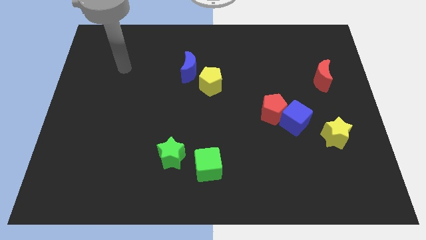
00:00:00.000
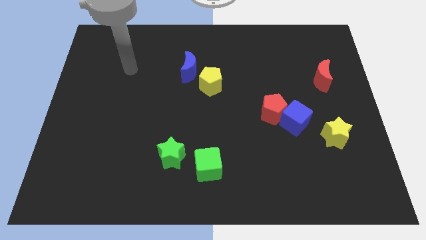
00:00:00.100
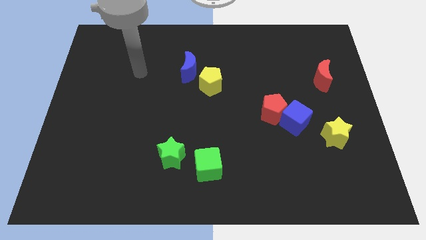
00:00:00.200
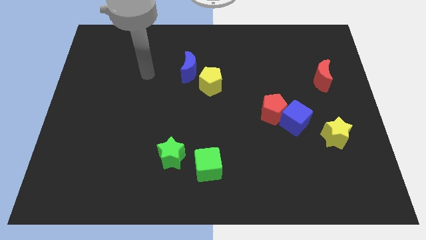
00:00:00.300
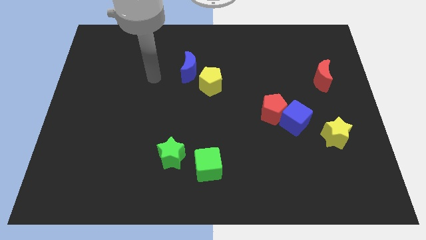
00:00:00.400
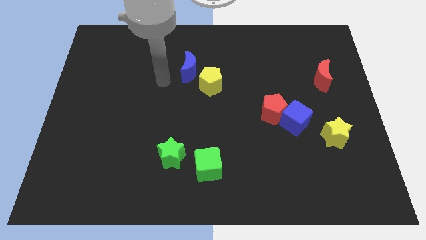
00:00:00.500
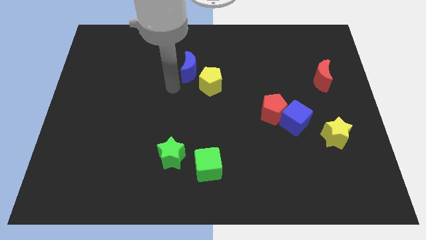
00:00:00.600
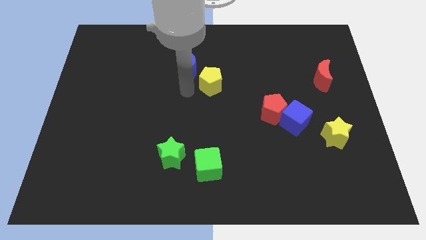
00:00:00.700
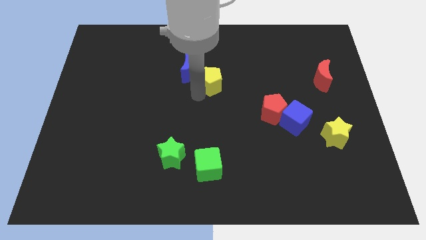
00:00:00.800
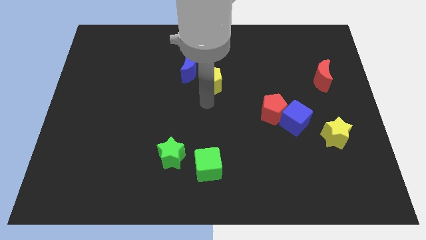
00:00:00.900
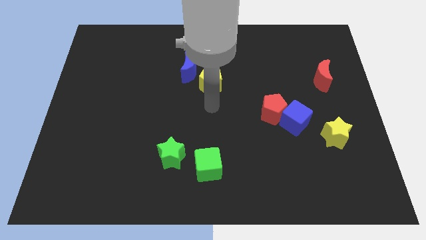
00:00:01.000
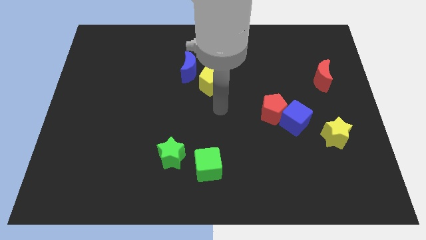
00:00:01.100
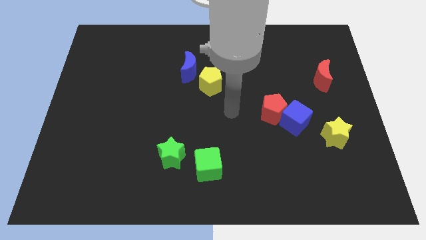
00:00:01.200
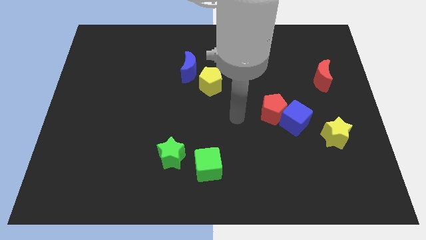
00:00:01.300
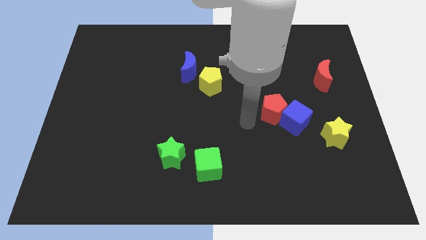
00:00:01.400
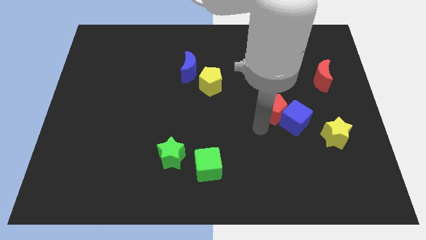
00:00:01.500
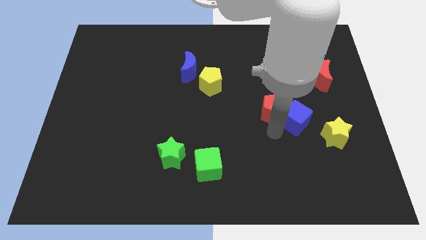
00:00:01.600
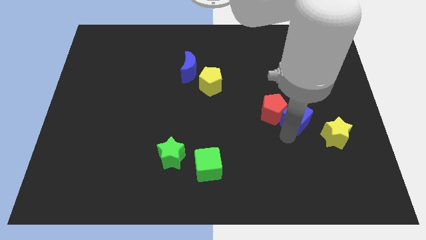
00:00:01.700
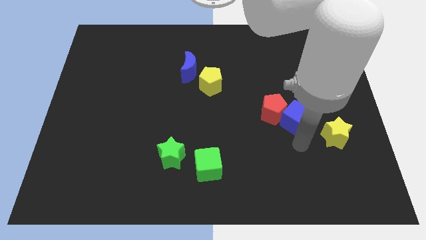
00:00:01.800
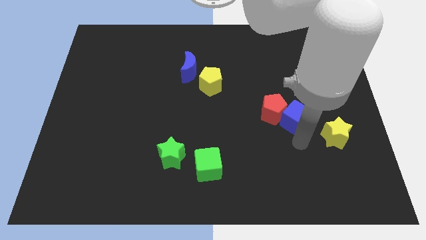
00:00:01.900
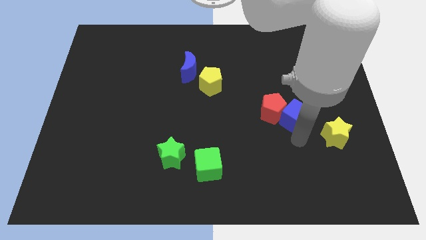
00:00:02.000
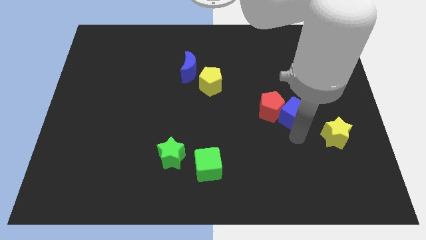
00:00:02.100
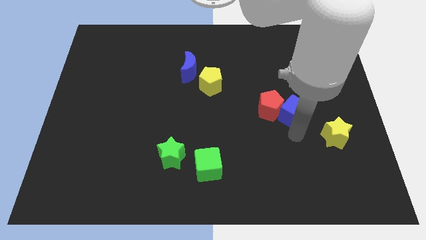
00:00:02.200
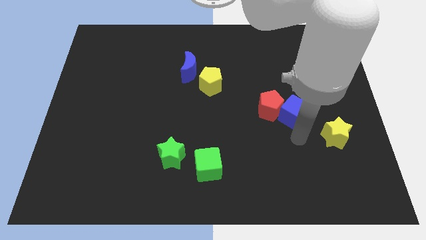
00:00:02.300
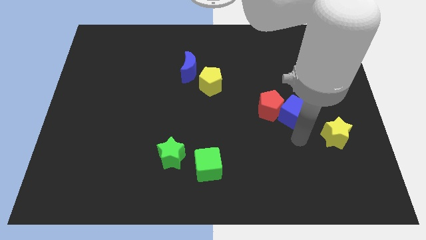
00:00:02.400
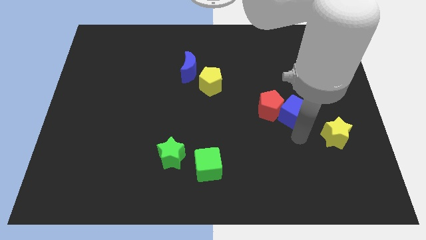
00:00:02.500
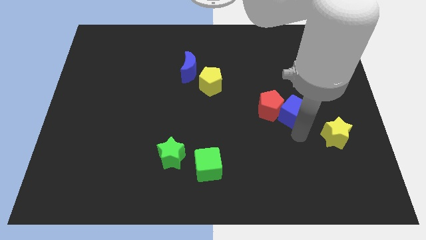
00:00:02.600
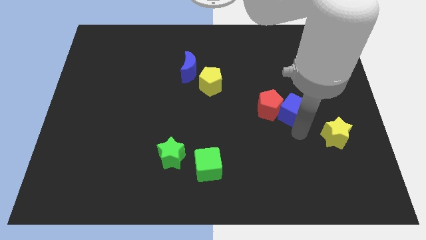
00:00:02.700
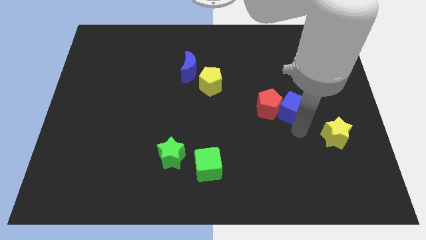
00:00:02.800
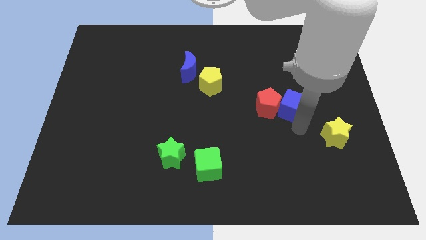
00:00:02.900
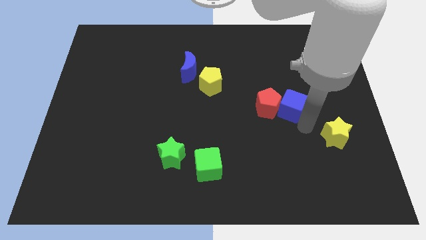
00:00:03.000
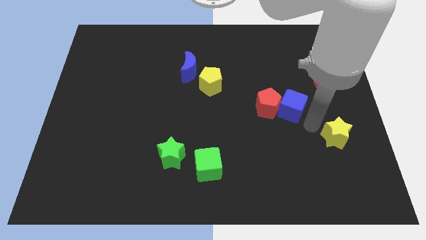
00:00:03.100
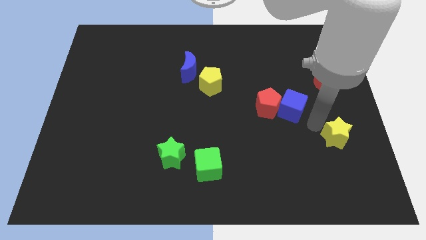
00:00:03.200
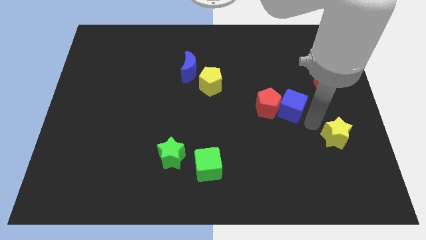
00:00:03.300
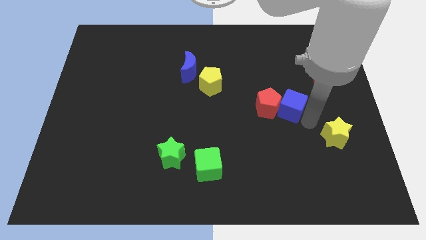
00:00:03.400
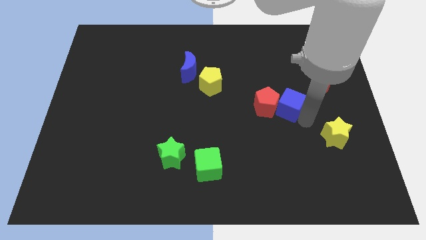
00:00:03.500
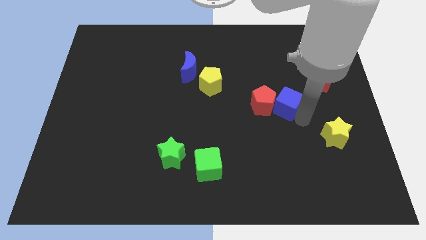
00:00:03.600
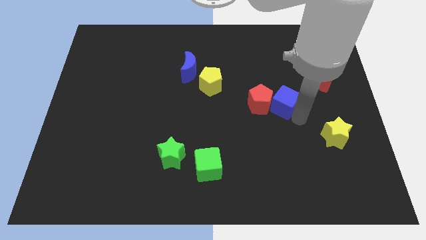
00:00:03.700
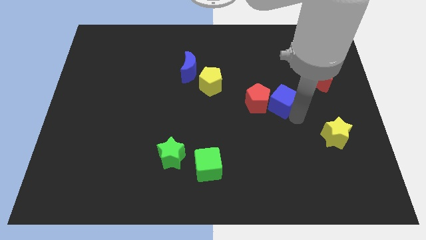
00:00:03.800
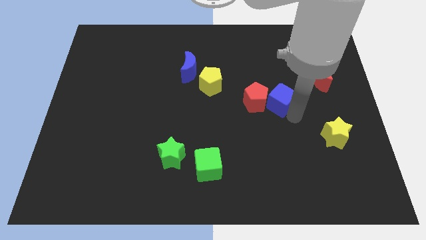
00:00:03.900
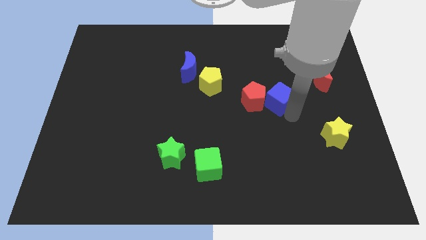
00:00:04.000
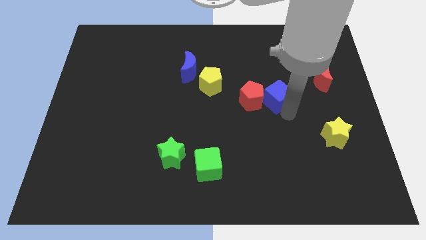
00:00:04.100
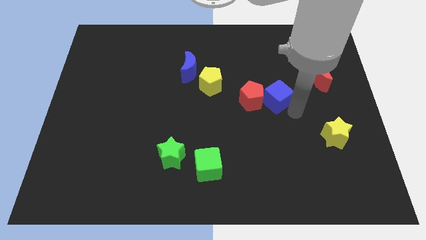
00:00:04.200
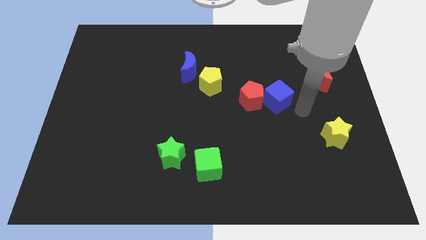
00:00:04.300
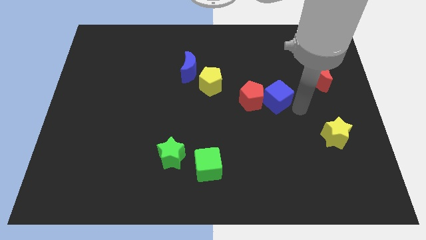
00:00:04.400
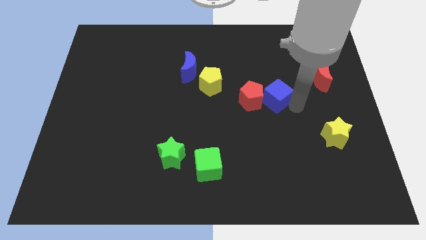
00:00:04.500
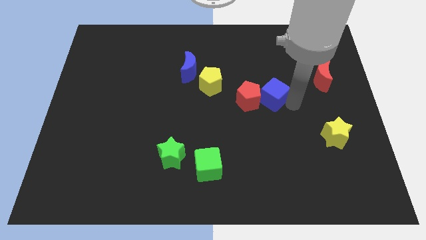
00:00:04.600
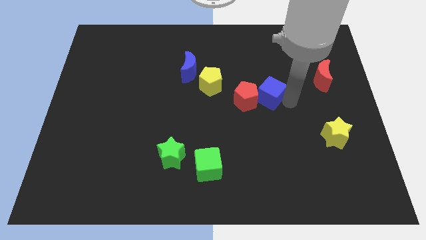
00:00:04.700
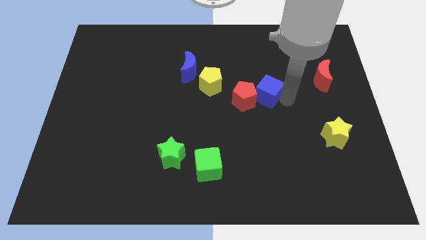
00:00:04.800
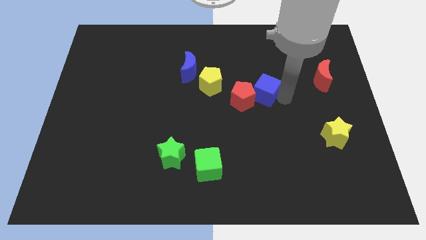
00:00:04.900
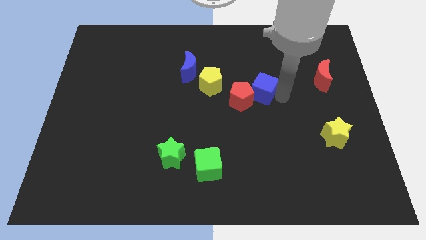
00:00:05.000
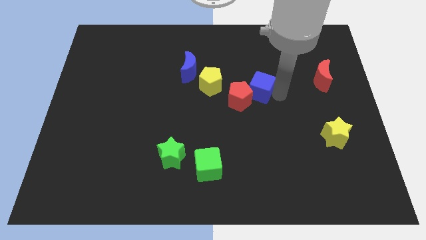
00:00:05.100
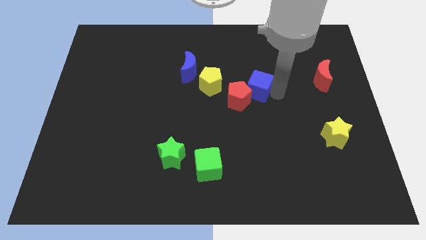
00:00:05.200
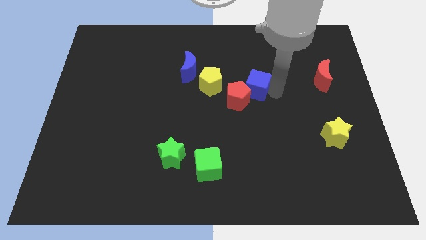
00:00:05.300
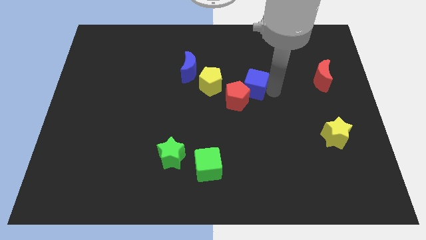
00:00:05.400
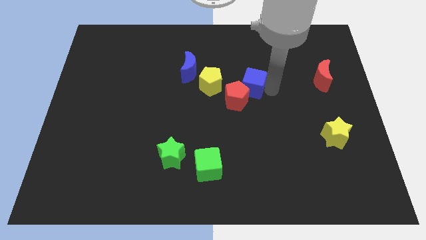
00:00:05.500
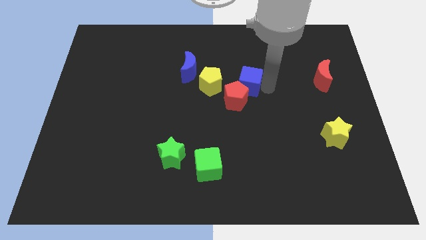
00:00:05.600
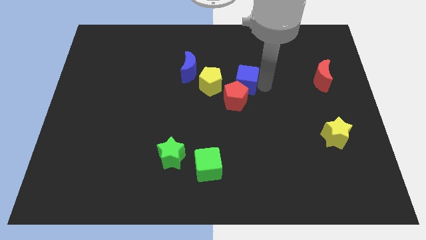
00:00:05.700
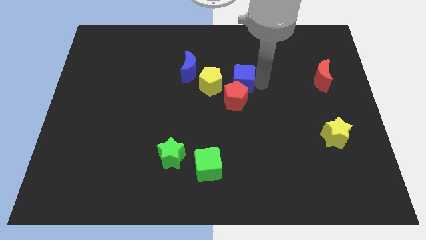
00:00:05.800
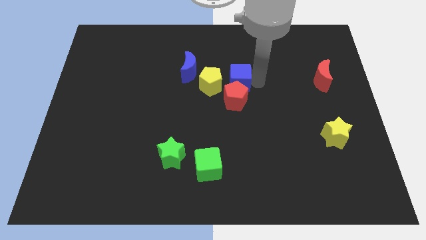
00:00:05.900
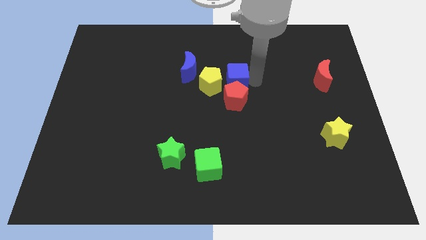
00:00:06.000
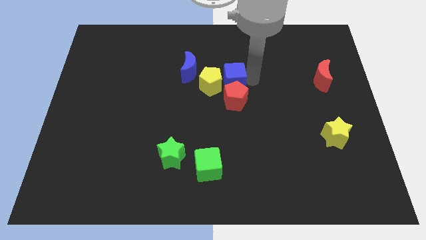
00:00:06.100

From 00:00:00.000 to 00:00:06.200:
push the blue cube close to the yellow pentagon

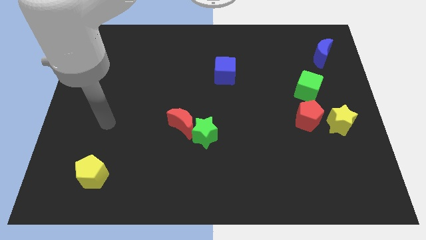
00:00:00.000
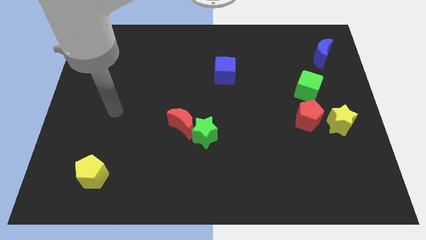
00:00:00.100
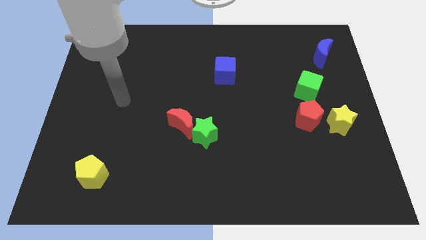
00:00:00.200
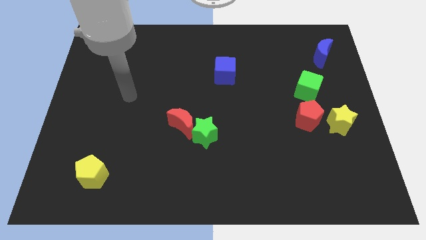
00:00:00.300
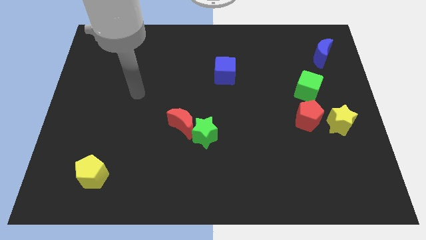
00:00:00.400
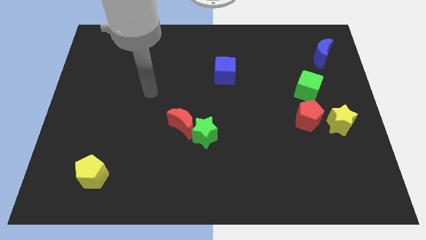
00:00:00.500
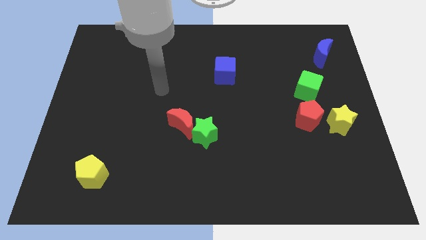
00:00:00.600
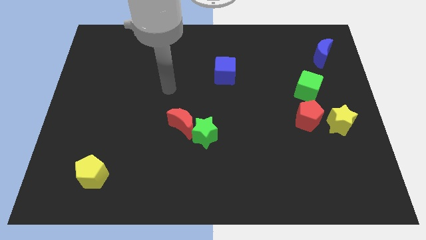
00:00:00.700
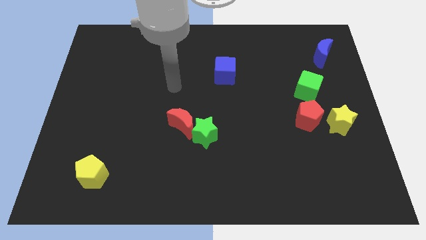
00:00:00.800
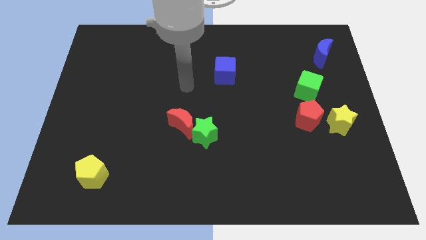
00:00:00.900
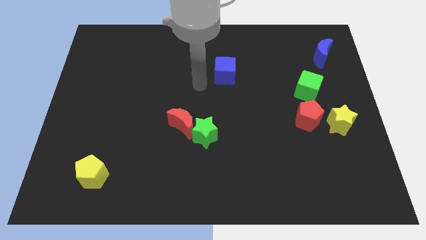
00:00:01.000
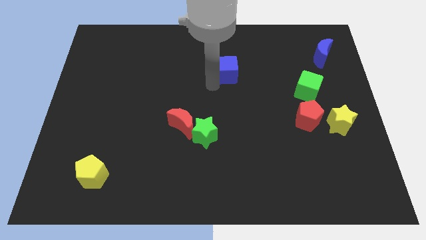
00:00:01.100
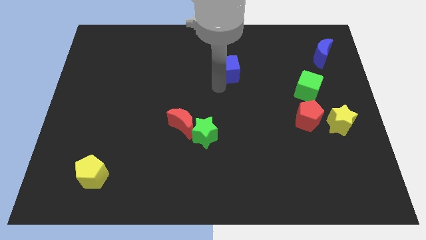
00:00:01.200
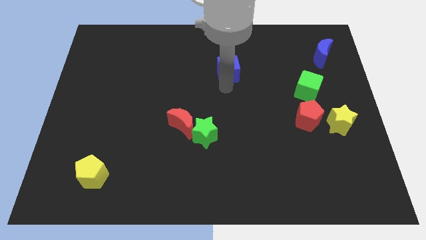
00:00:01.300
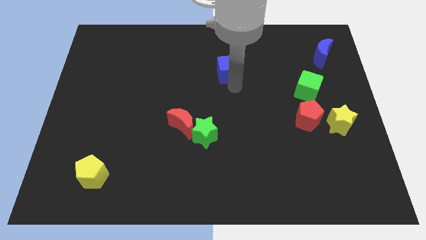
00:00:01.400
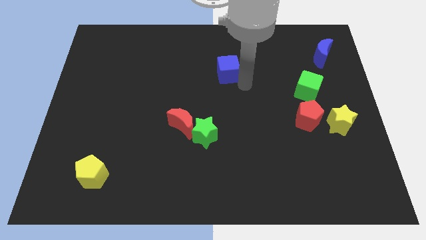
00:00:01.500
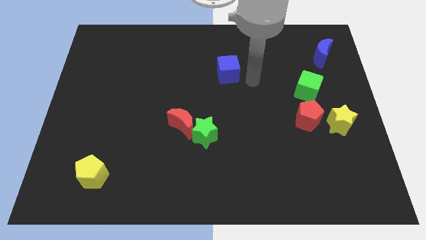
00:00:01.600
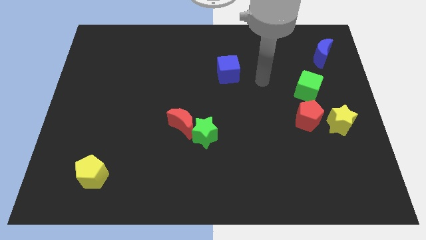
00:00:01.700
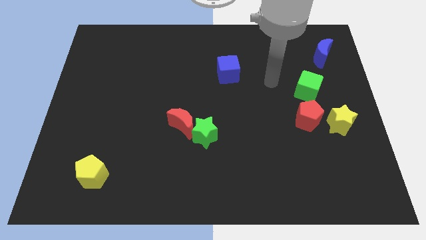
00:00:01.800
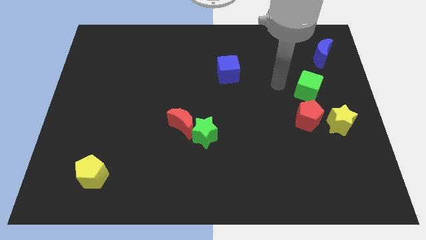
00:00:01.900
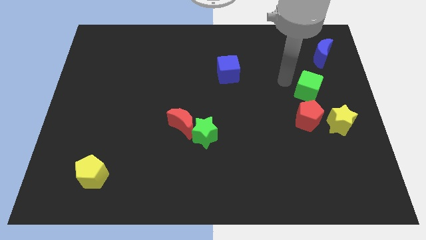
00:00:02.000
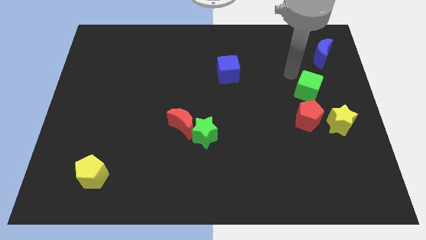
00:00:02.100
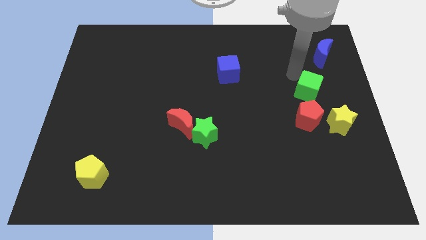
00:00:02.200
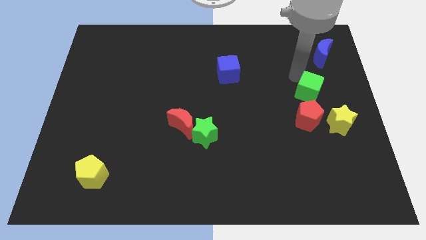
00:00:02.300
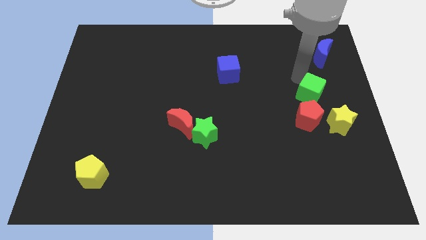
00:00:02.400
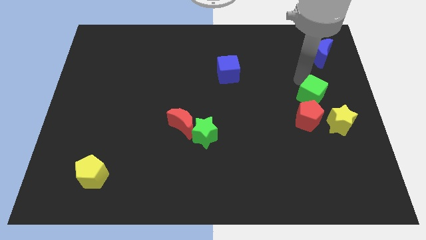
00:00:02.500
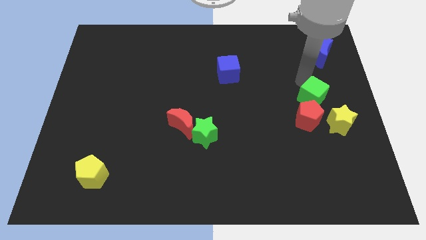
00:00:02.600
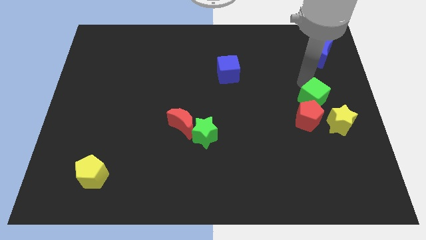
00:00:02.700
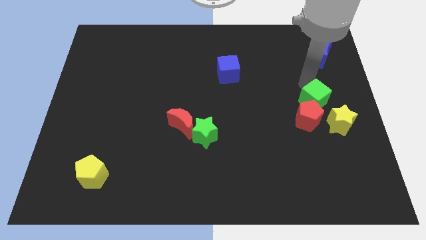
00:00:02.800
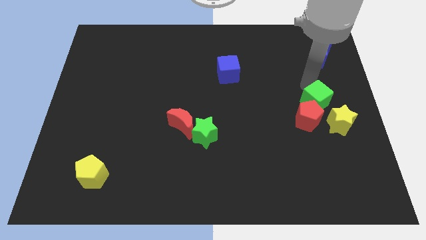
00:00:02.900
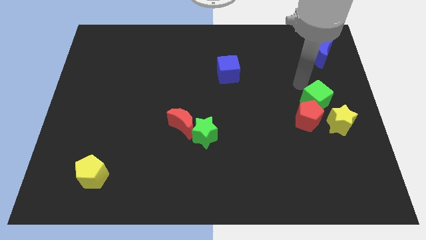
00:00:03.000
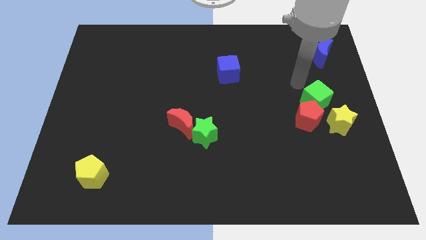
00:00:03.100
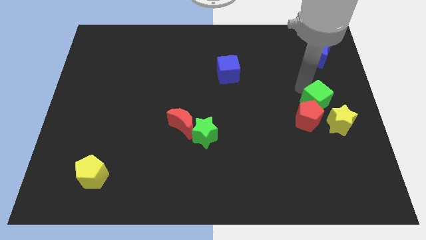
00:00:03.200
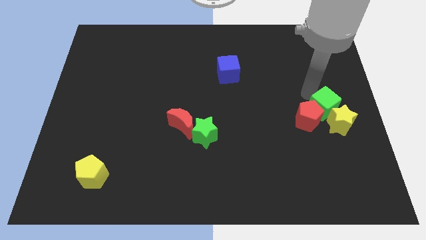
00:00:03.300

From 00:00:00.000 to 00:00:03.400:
move the green cube close to the yellow star
